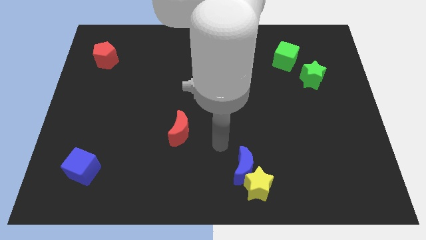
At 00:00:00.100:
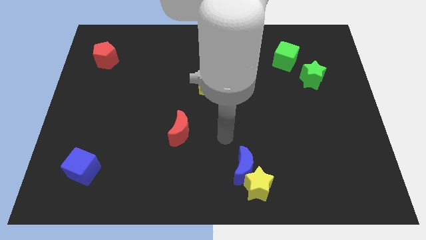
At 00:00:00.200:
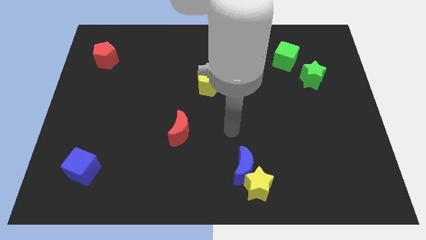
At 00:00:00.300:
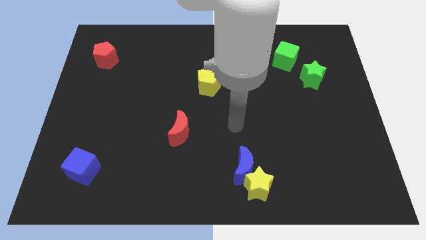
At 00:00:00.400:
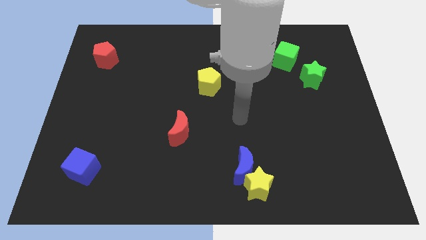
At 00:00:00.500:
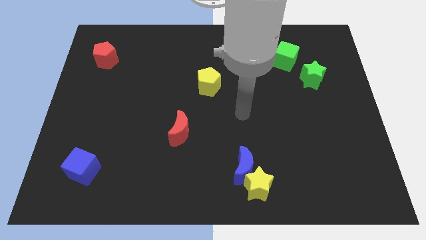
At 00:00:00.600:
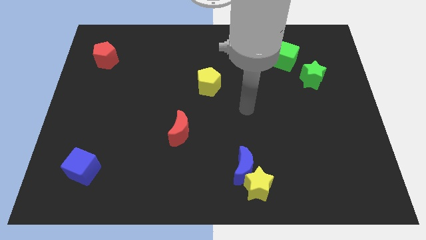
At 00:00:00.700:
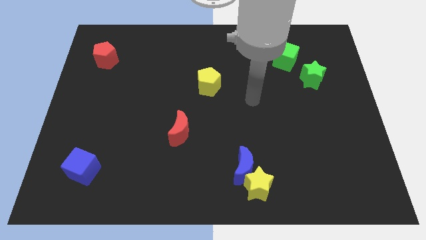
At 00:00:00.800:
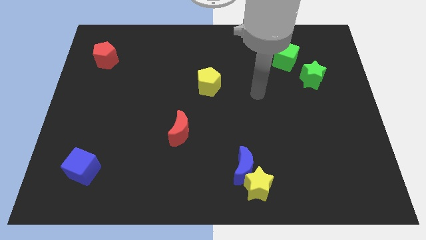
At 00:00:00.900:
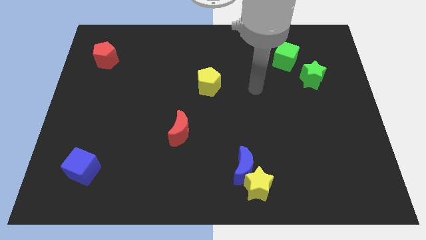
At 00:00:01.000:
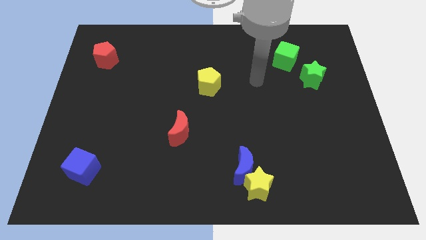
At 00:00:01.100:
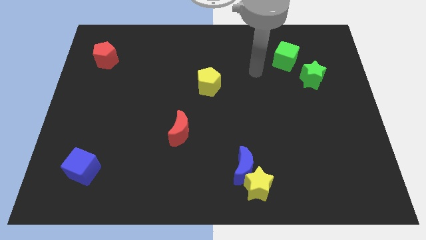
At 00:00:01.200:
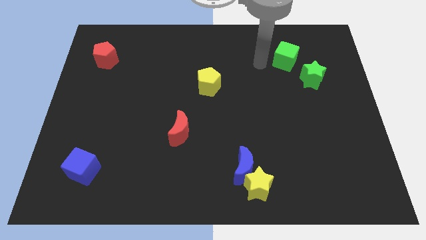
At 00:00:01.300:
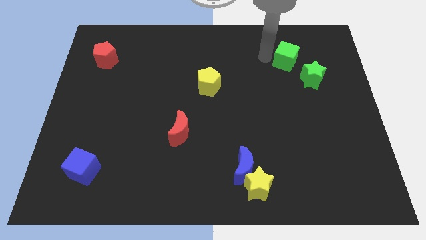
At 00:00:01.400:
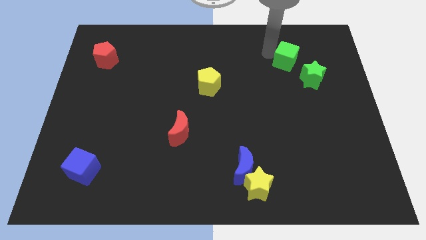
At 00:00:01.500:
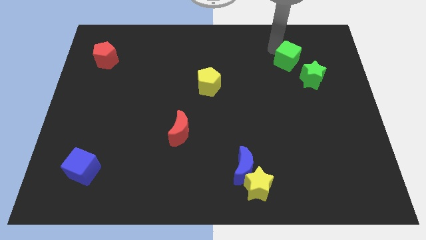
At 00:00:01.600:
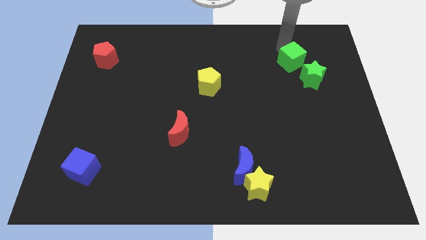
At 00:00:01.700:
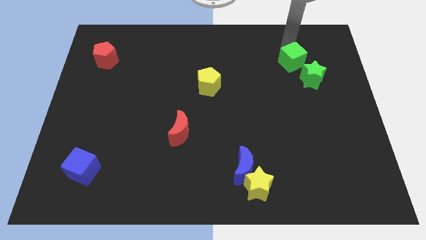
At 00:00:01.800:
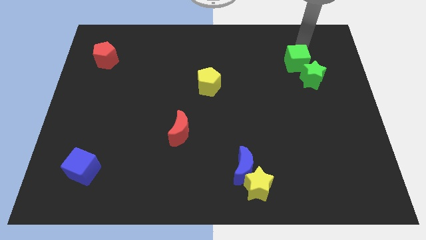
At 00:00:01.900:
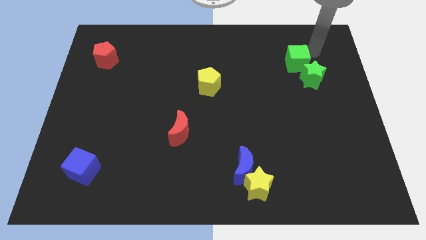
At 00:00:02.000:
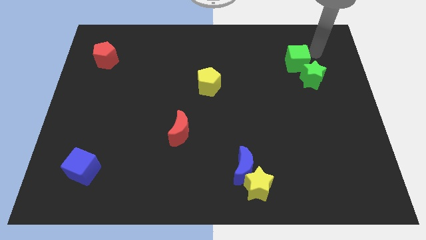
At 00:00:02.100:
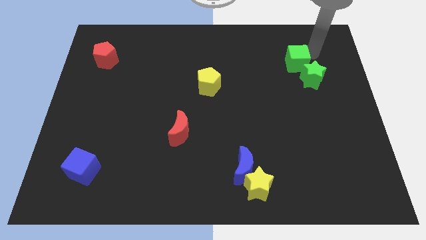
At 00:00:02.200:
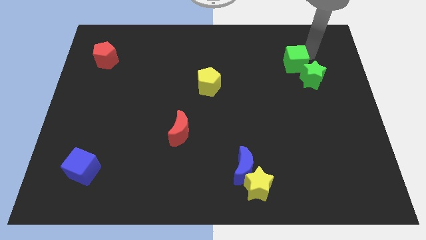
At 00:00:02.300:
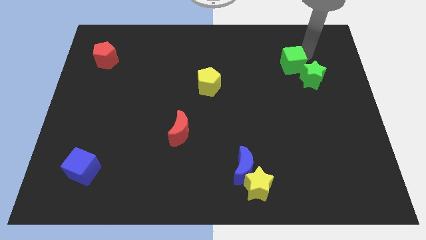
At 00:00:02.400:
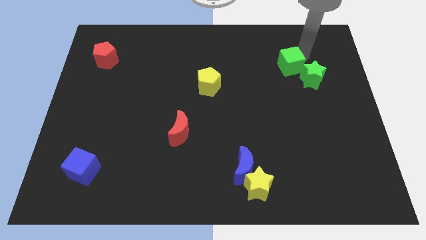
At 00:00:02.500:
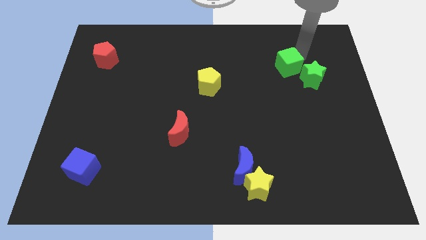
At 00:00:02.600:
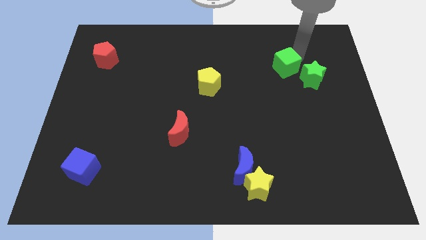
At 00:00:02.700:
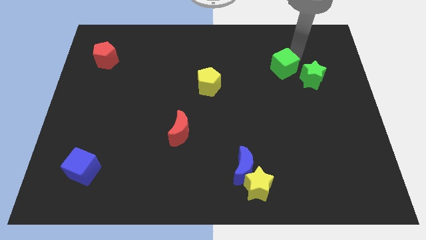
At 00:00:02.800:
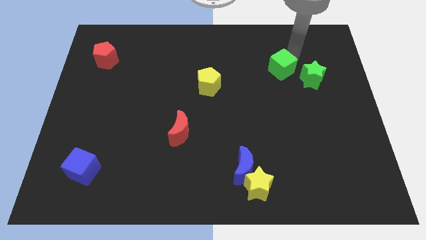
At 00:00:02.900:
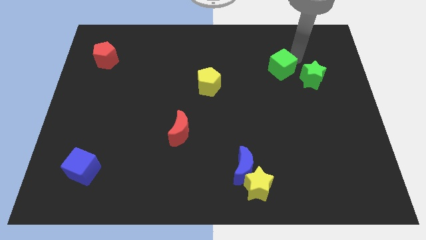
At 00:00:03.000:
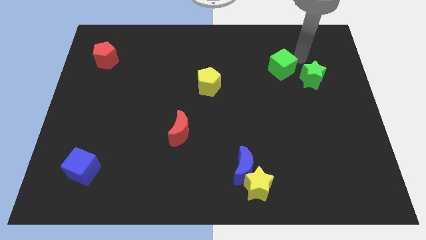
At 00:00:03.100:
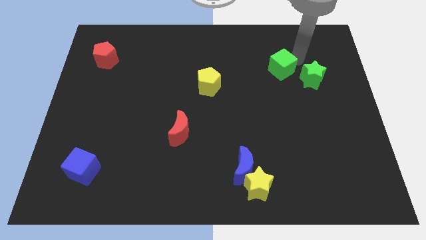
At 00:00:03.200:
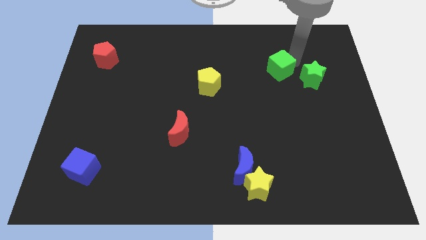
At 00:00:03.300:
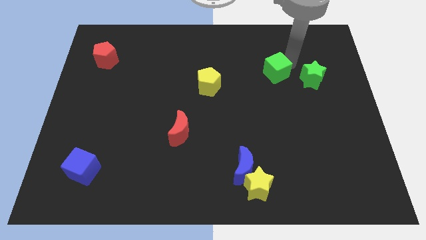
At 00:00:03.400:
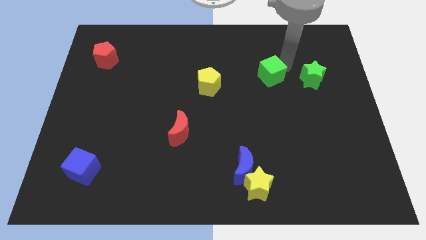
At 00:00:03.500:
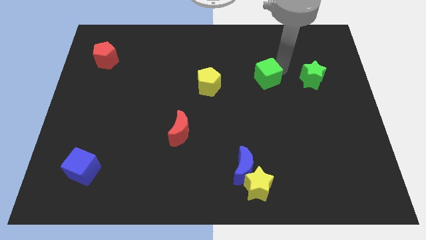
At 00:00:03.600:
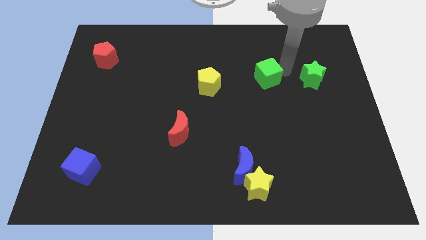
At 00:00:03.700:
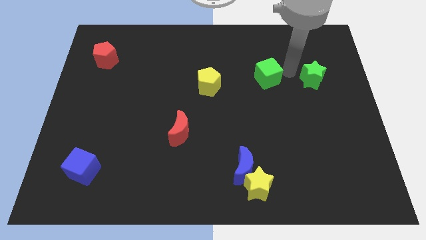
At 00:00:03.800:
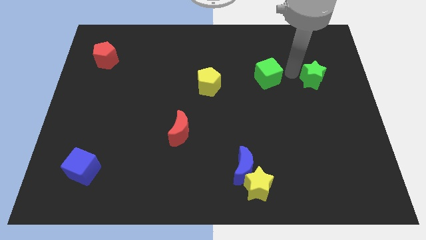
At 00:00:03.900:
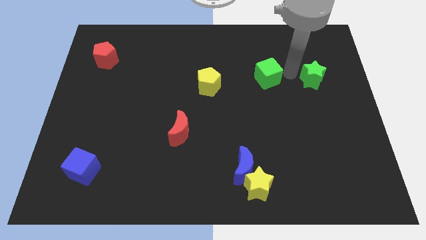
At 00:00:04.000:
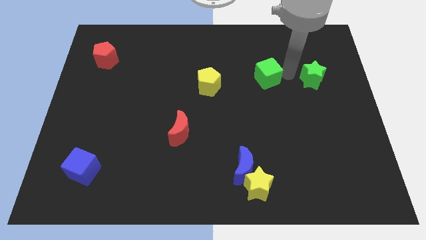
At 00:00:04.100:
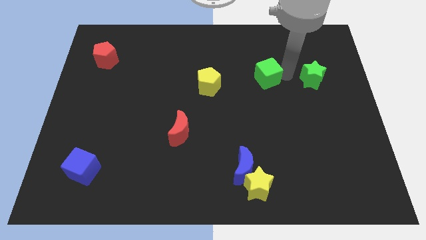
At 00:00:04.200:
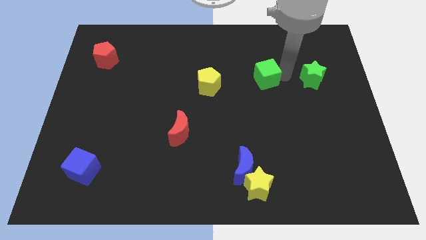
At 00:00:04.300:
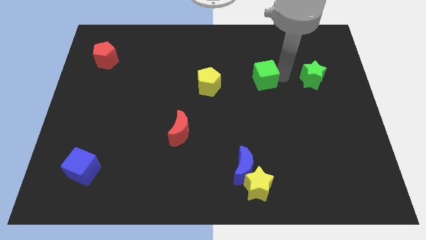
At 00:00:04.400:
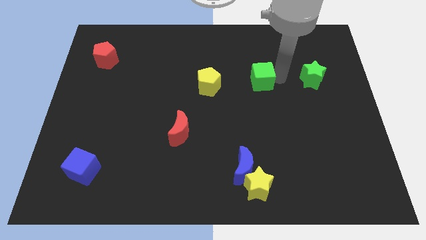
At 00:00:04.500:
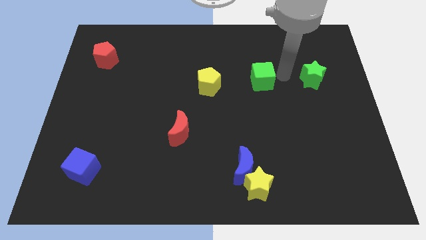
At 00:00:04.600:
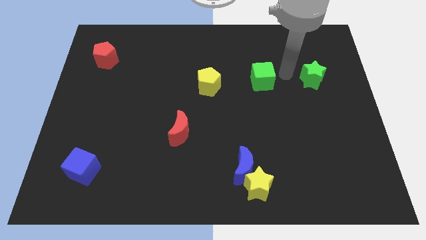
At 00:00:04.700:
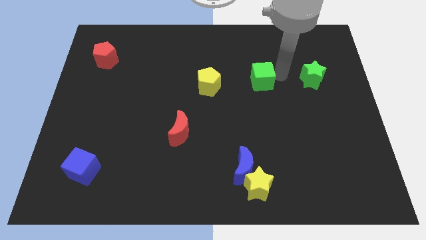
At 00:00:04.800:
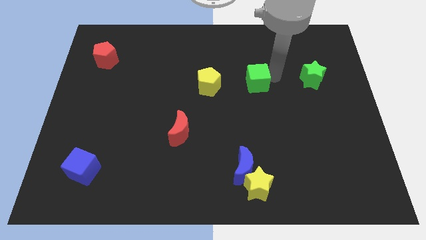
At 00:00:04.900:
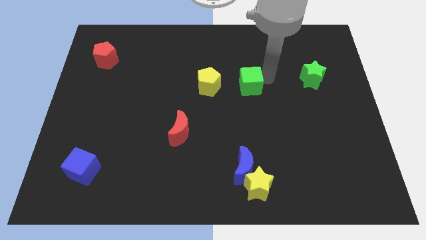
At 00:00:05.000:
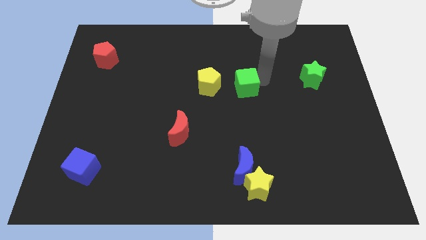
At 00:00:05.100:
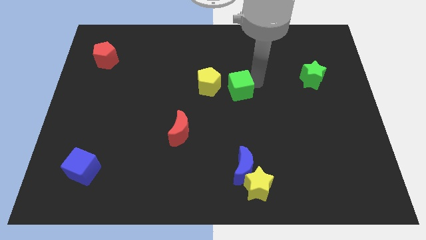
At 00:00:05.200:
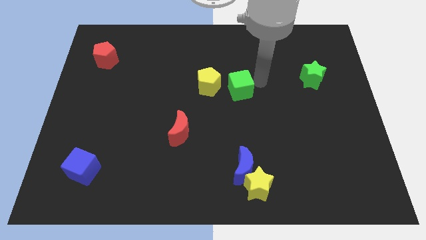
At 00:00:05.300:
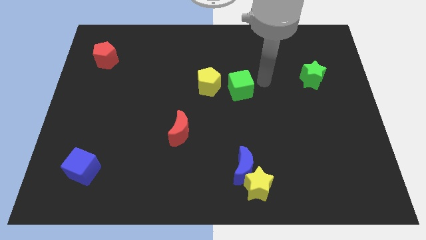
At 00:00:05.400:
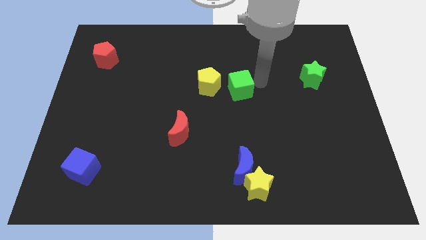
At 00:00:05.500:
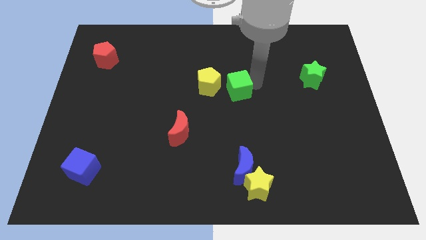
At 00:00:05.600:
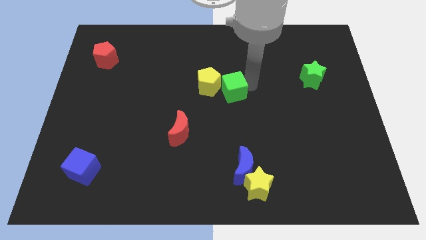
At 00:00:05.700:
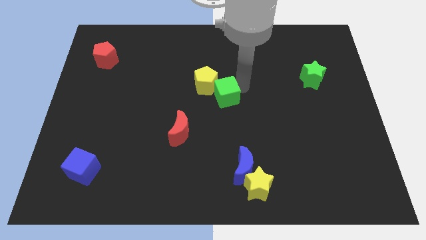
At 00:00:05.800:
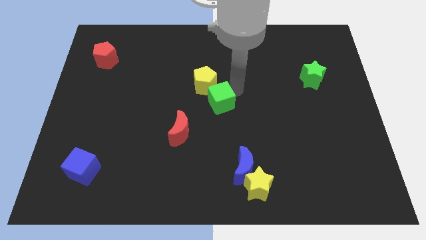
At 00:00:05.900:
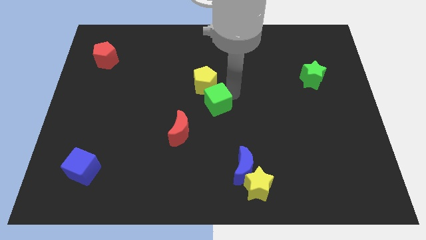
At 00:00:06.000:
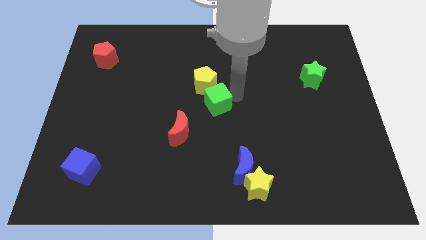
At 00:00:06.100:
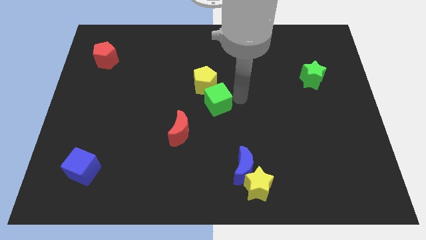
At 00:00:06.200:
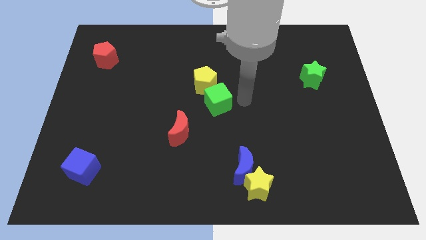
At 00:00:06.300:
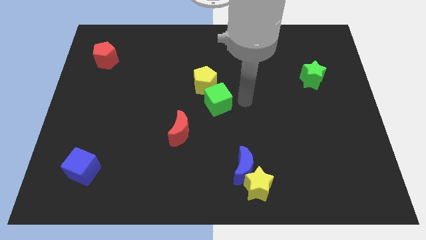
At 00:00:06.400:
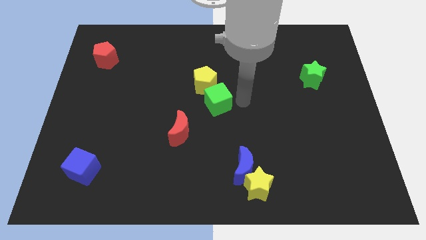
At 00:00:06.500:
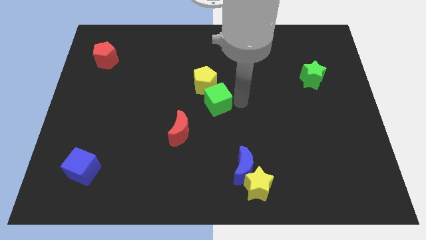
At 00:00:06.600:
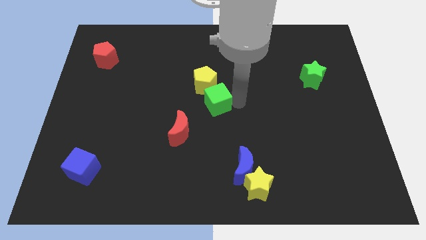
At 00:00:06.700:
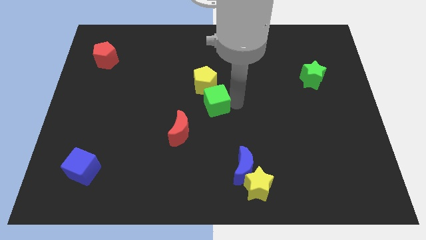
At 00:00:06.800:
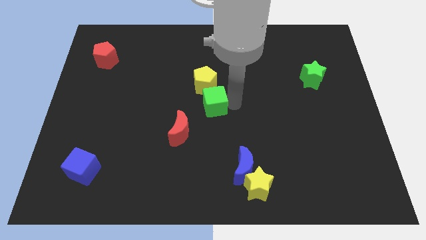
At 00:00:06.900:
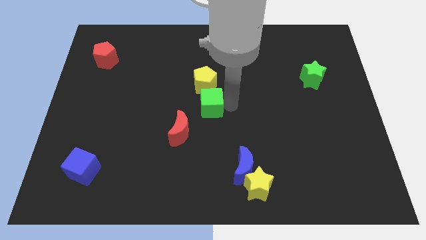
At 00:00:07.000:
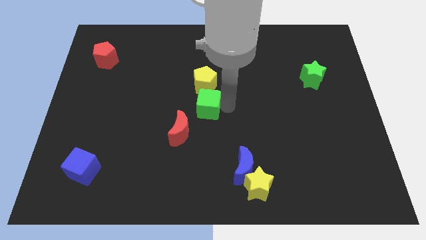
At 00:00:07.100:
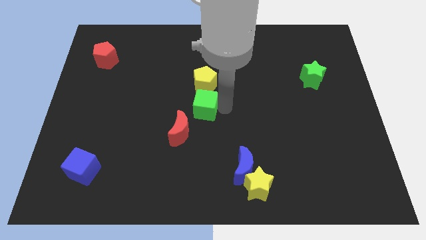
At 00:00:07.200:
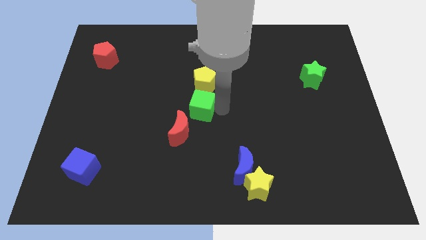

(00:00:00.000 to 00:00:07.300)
slide the green cube above the red moon
